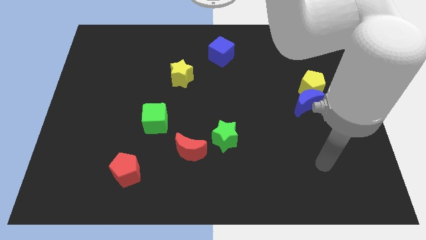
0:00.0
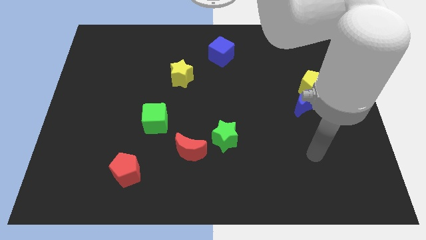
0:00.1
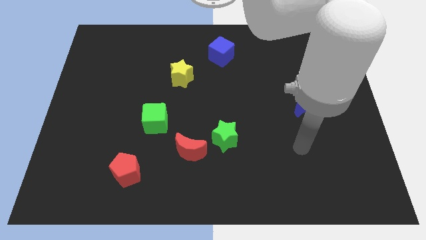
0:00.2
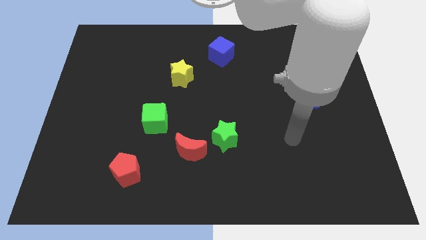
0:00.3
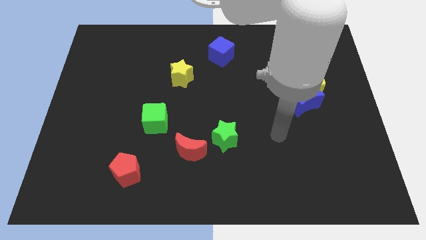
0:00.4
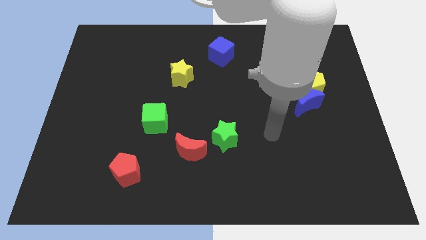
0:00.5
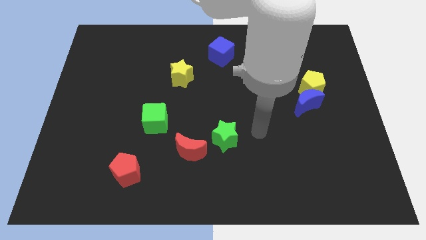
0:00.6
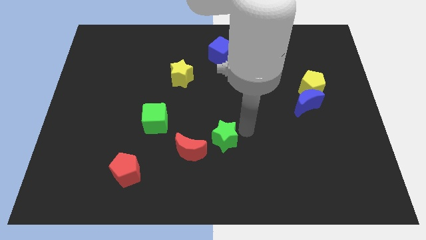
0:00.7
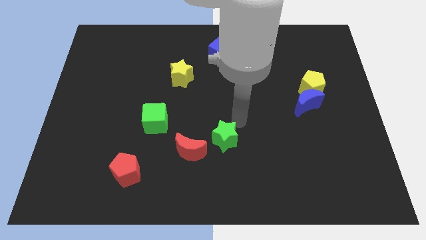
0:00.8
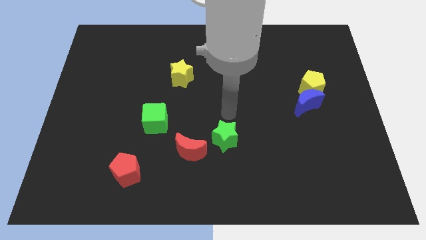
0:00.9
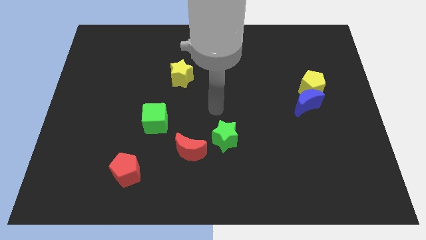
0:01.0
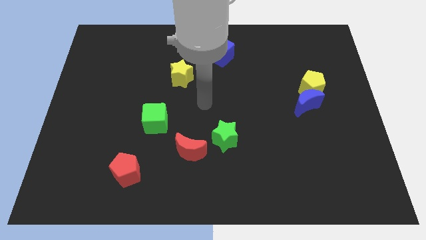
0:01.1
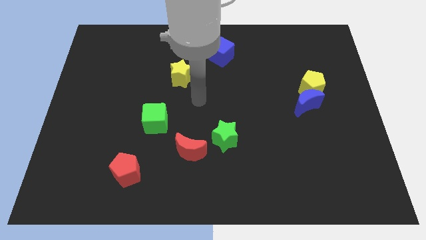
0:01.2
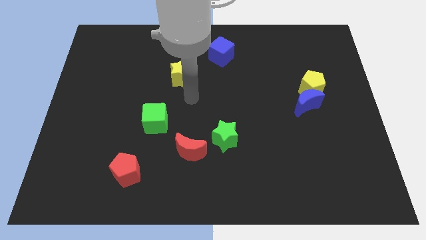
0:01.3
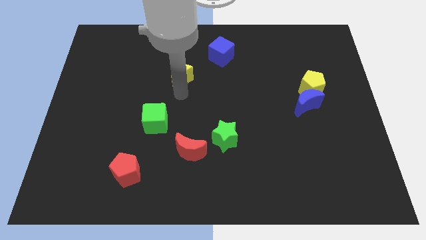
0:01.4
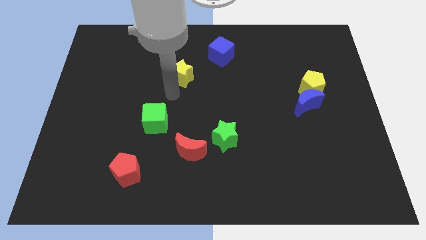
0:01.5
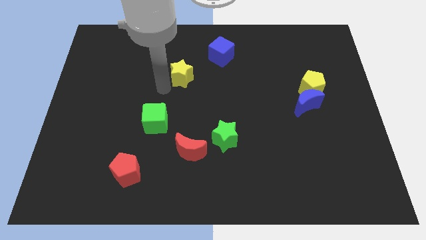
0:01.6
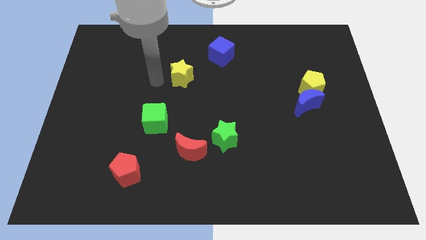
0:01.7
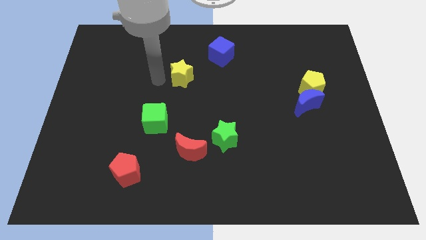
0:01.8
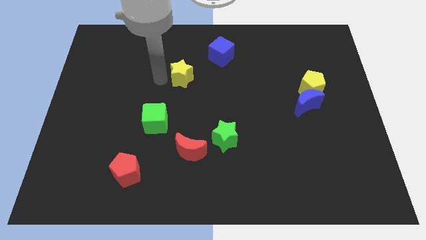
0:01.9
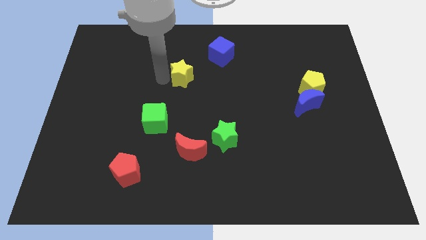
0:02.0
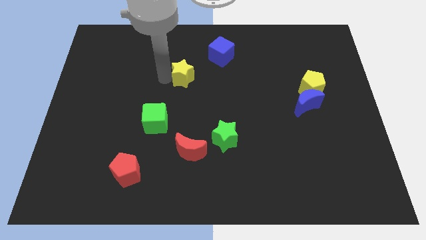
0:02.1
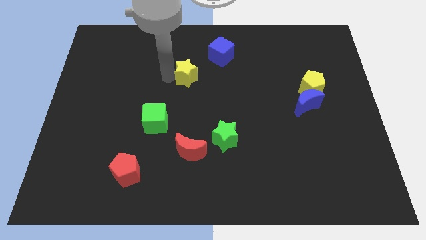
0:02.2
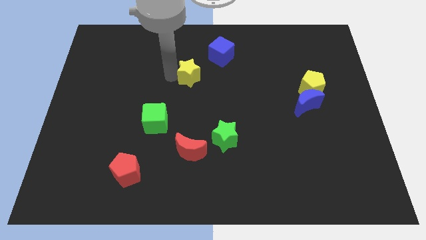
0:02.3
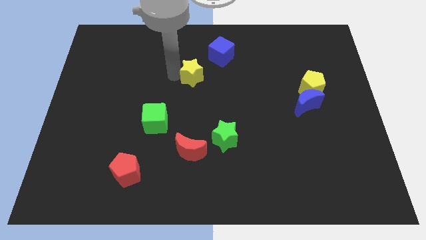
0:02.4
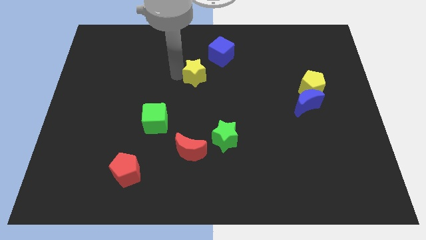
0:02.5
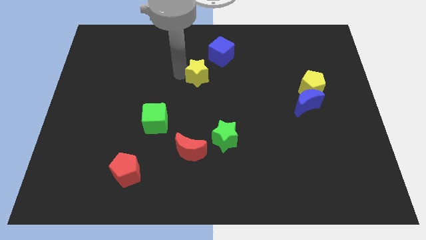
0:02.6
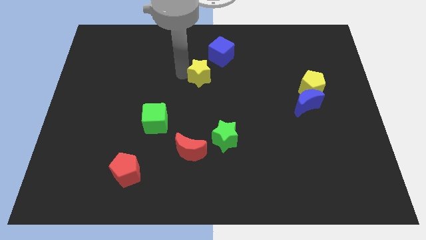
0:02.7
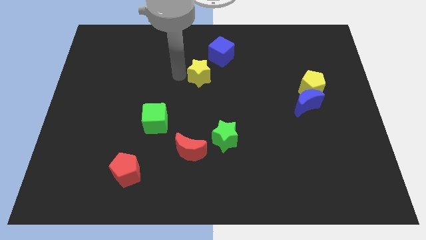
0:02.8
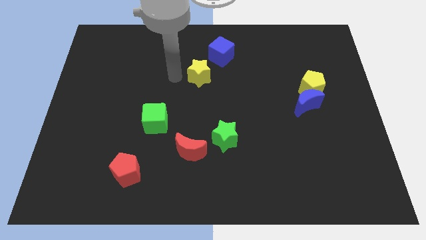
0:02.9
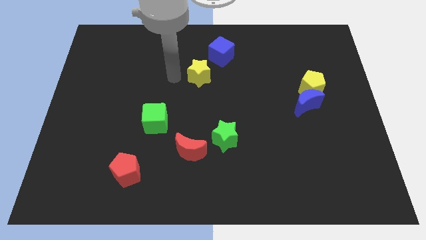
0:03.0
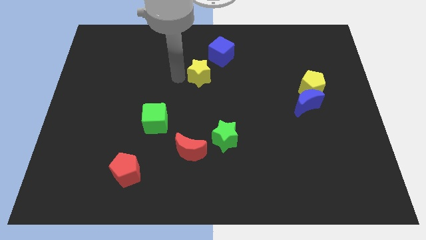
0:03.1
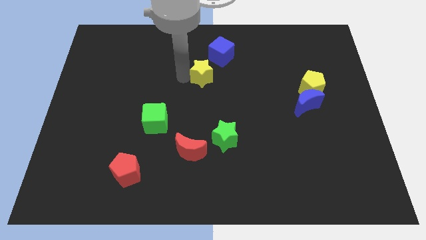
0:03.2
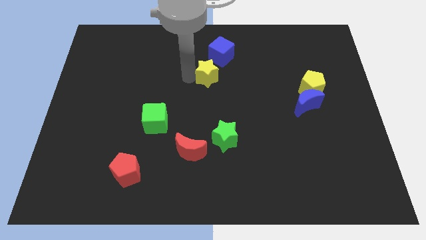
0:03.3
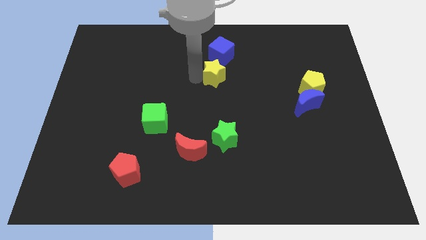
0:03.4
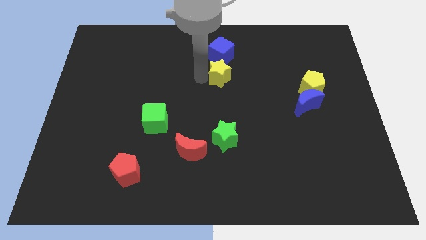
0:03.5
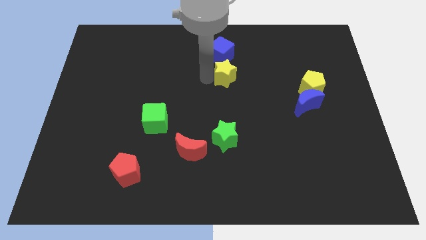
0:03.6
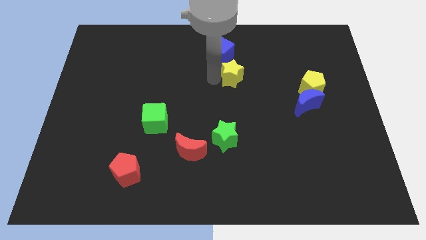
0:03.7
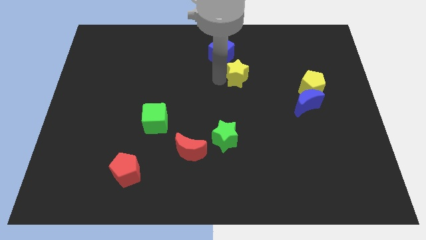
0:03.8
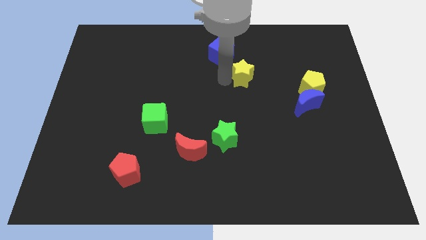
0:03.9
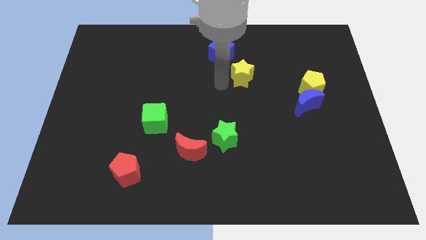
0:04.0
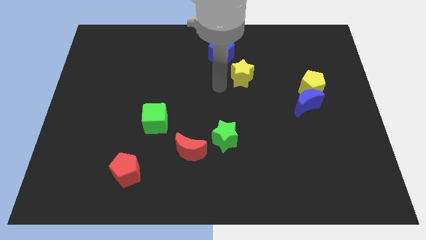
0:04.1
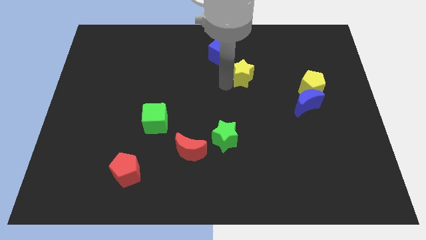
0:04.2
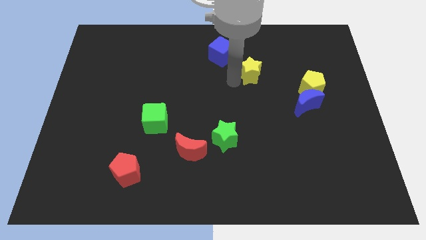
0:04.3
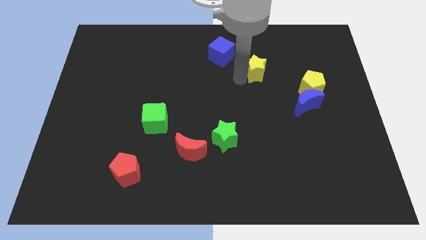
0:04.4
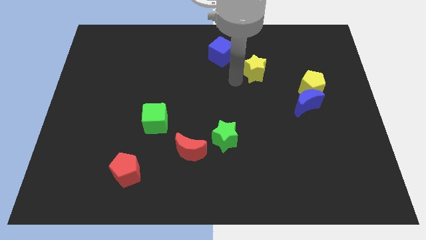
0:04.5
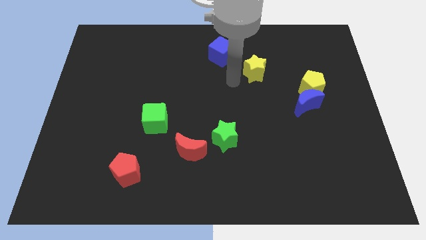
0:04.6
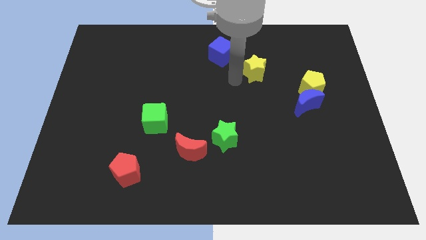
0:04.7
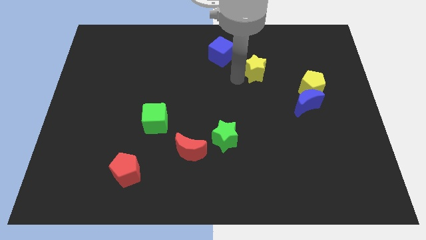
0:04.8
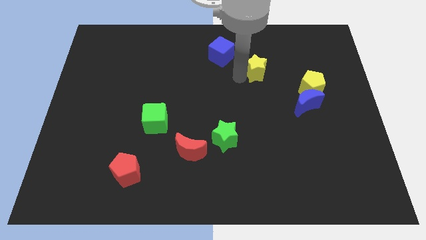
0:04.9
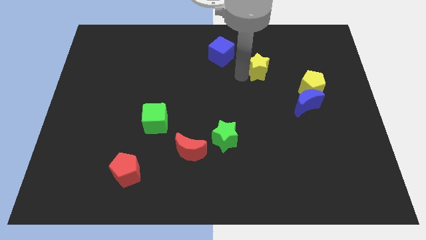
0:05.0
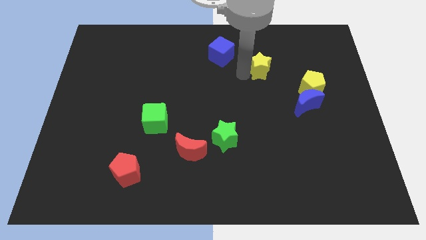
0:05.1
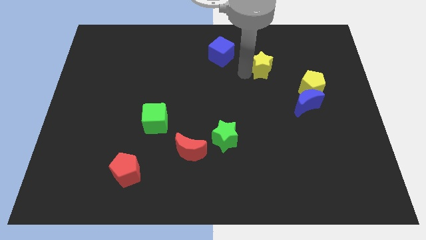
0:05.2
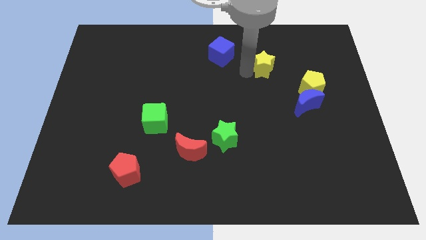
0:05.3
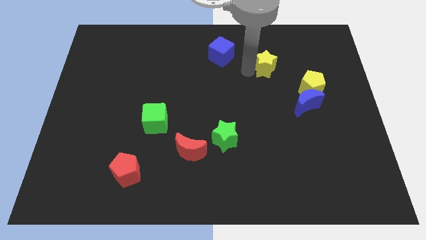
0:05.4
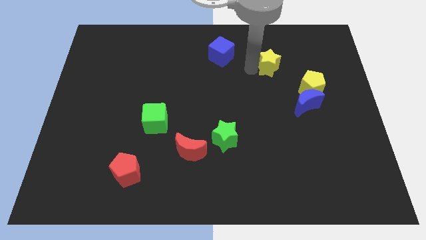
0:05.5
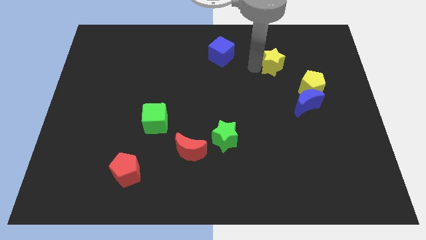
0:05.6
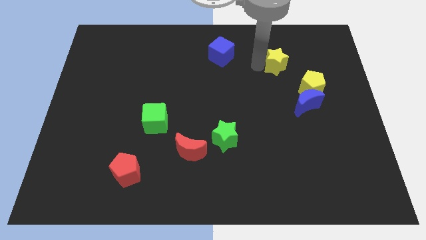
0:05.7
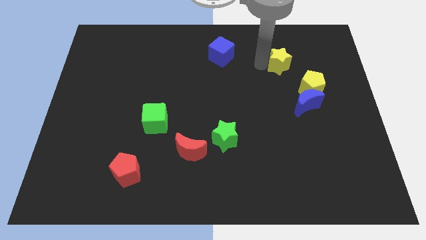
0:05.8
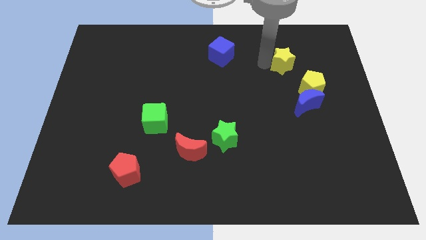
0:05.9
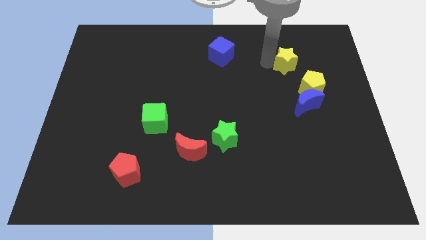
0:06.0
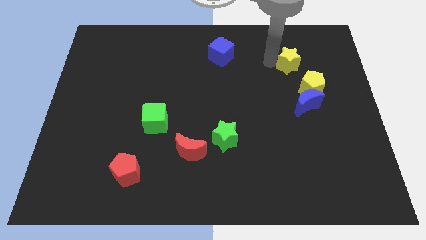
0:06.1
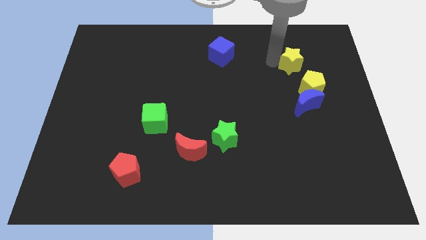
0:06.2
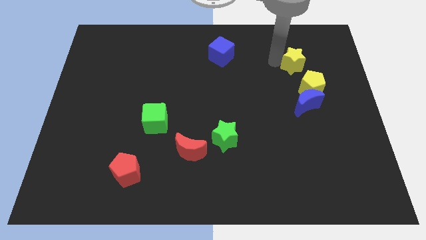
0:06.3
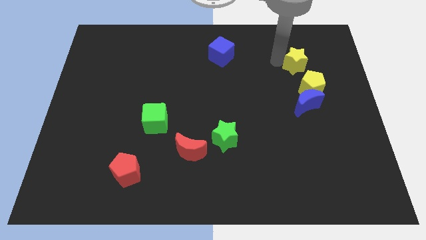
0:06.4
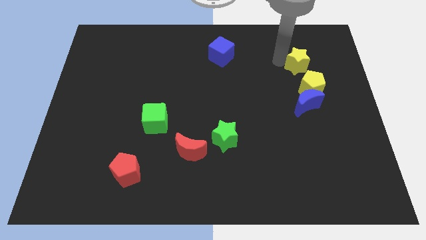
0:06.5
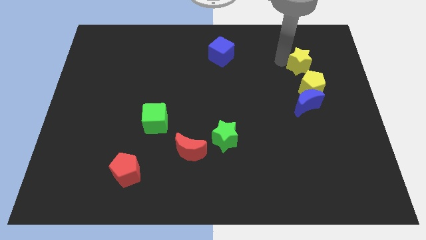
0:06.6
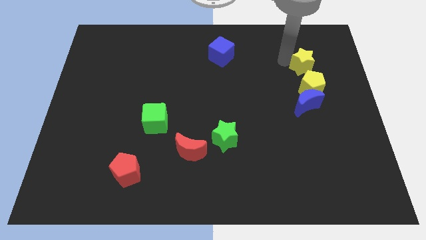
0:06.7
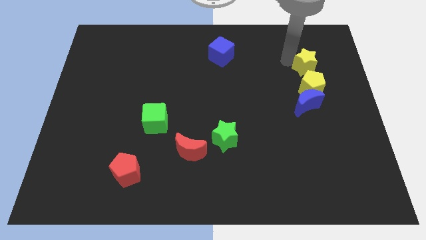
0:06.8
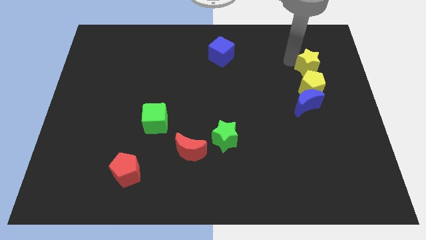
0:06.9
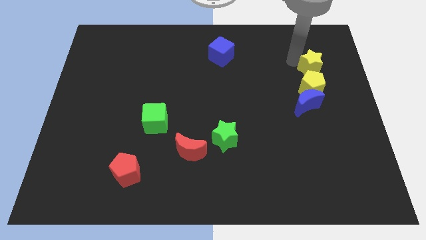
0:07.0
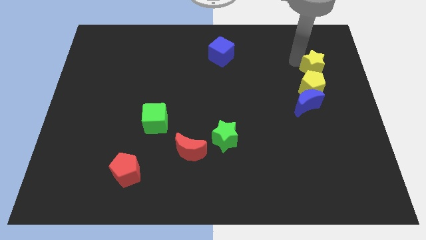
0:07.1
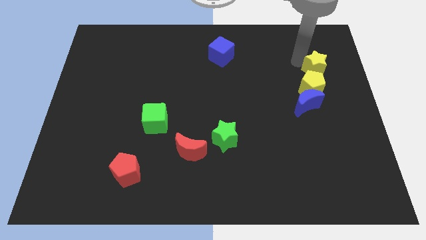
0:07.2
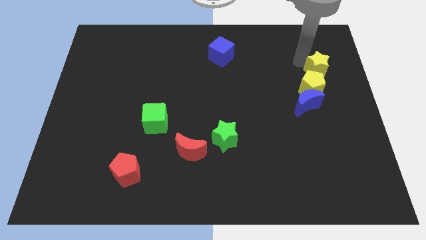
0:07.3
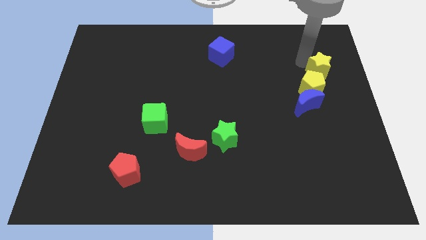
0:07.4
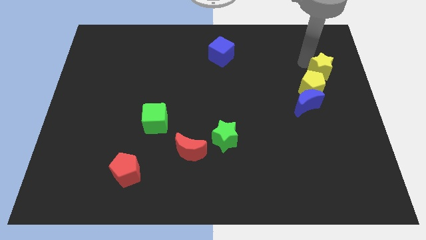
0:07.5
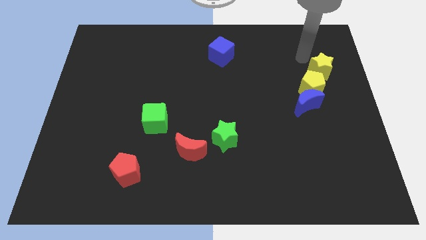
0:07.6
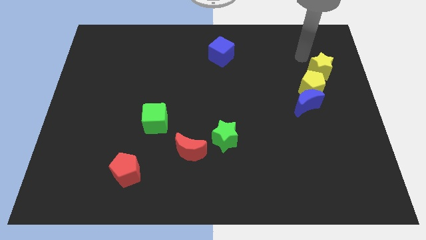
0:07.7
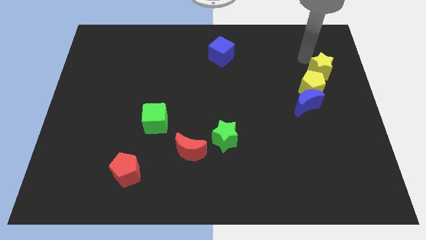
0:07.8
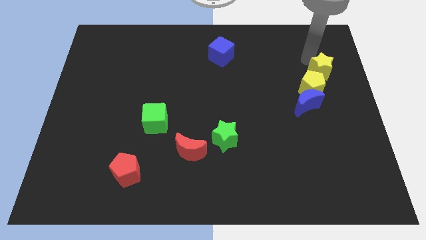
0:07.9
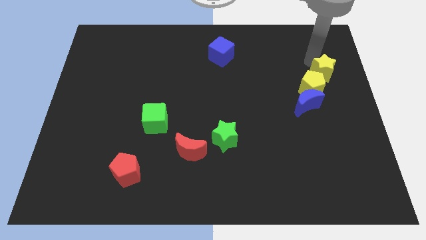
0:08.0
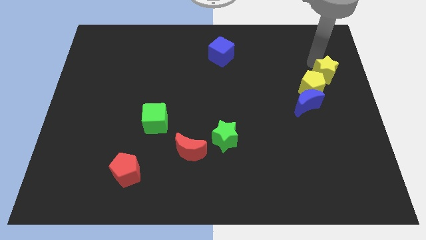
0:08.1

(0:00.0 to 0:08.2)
push the yellow star to the right side of the board
